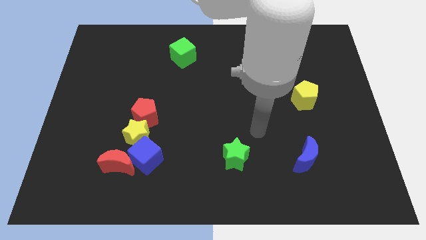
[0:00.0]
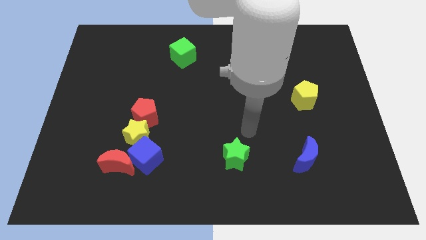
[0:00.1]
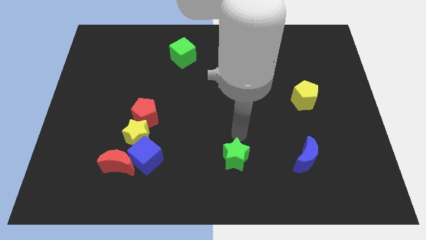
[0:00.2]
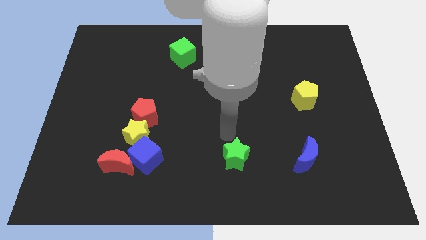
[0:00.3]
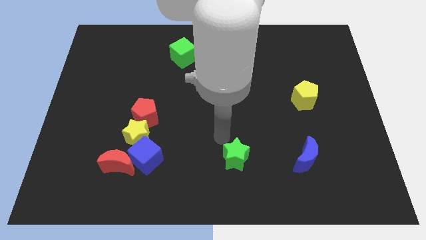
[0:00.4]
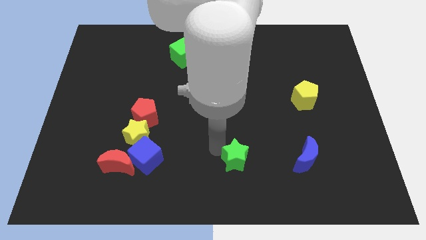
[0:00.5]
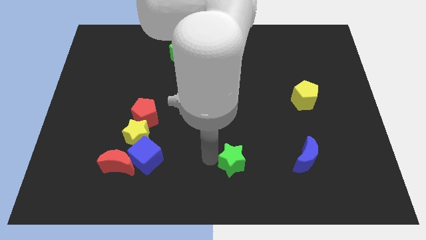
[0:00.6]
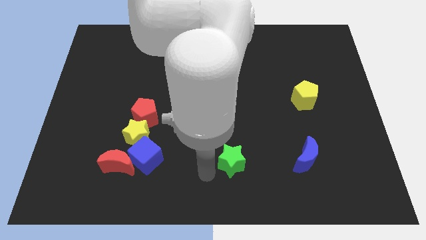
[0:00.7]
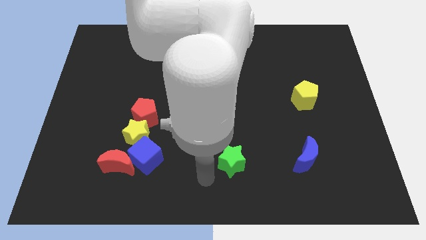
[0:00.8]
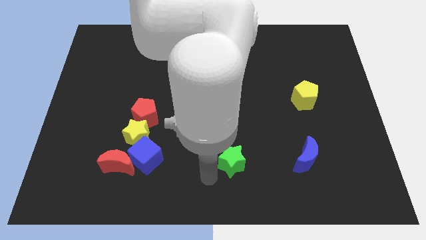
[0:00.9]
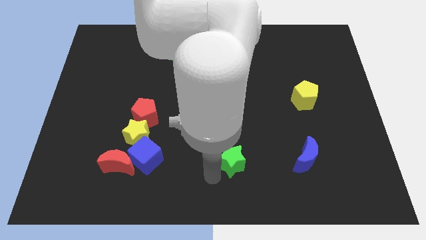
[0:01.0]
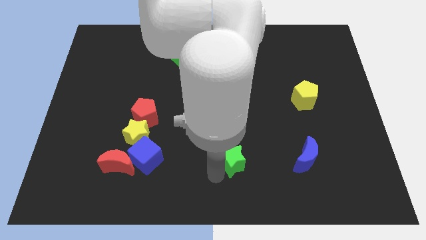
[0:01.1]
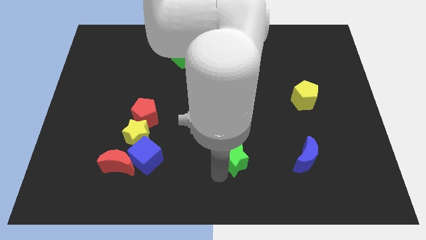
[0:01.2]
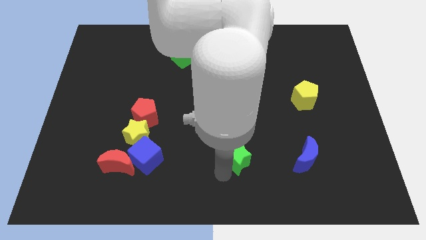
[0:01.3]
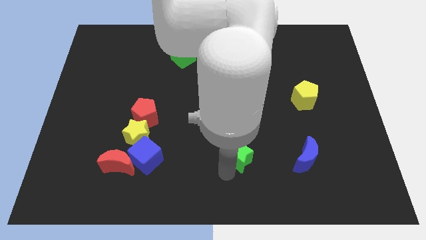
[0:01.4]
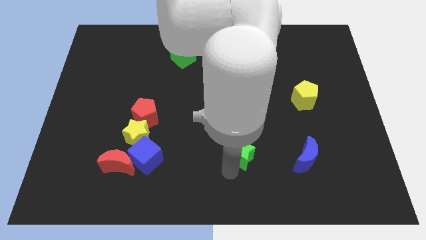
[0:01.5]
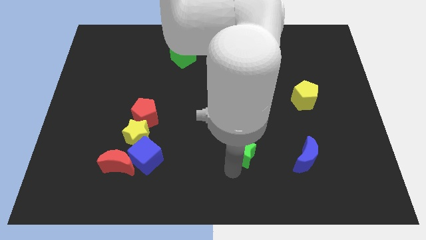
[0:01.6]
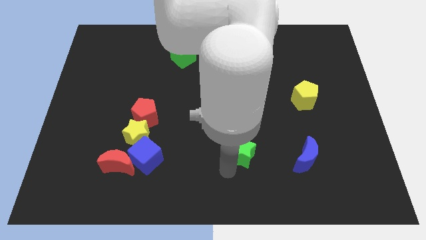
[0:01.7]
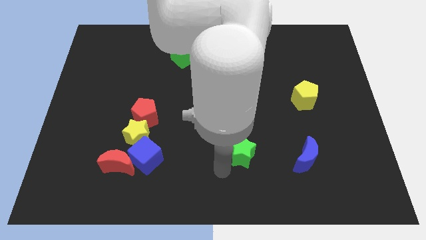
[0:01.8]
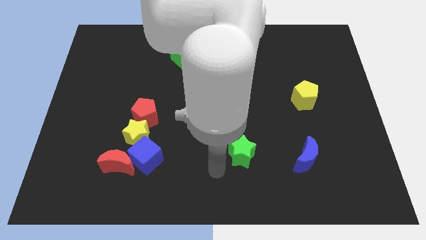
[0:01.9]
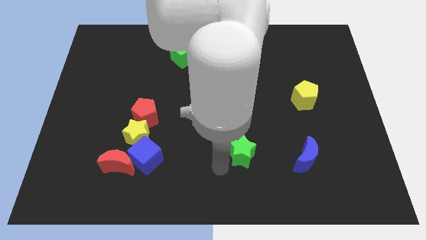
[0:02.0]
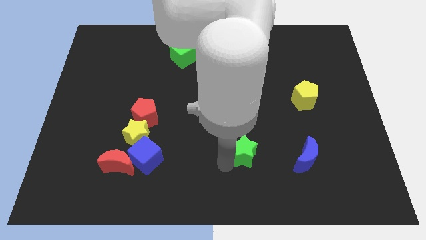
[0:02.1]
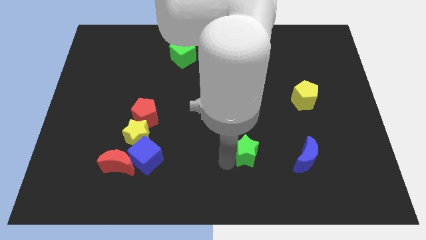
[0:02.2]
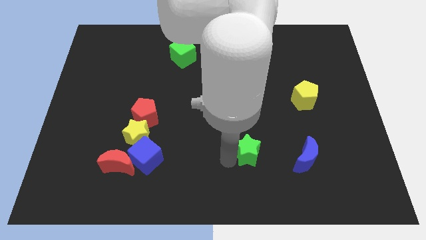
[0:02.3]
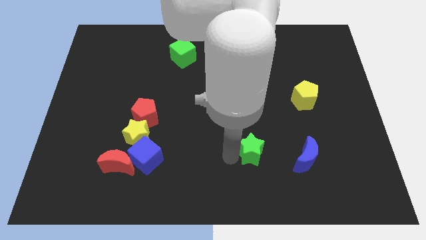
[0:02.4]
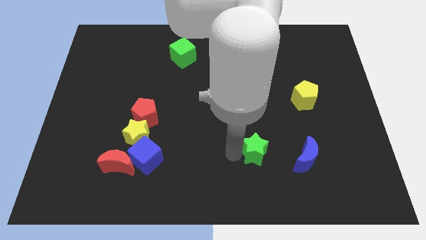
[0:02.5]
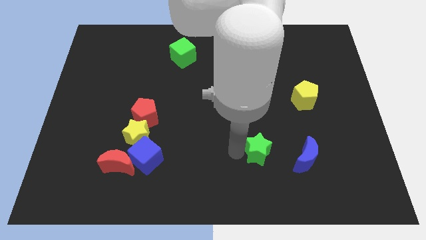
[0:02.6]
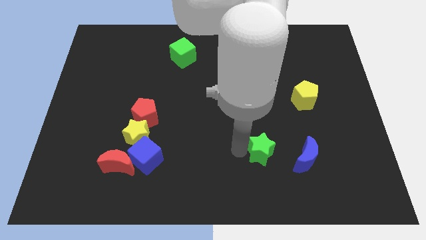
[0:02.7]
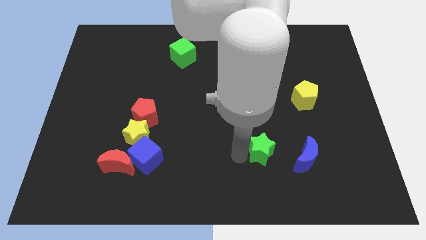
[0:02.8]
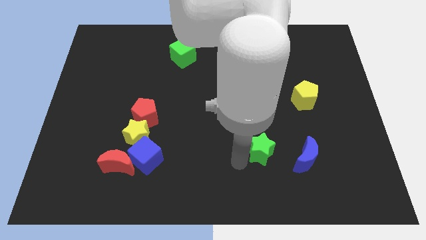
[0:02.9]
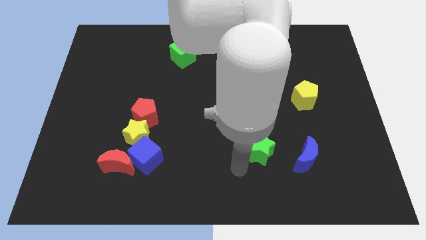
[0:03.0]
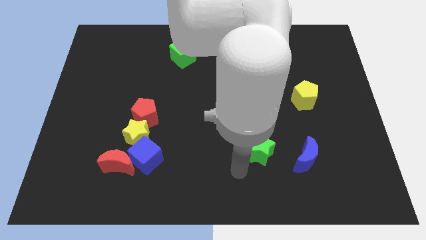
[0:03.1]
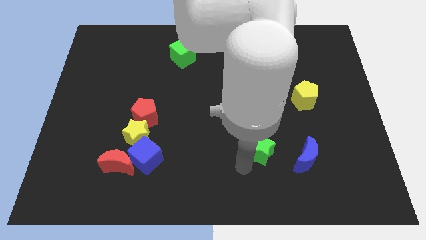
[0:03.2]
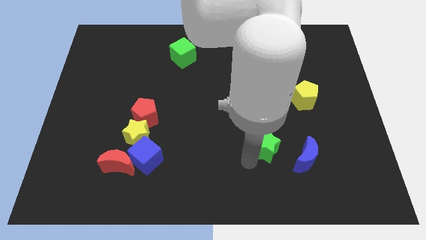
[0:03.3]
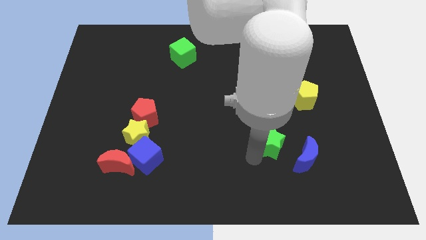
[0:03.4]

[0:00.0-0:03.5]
move the green star to the right a little bit

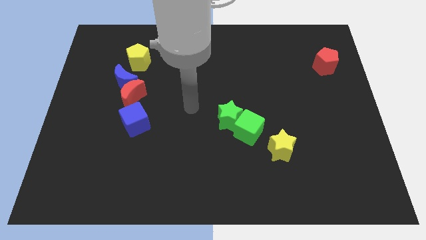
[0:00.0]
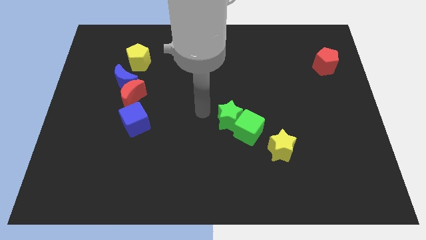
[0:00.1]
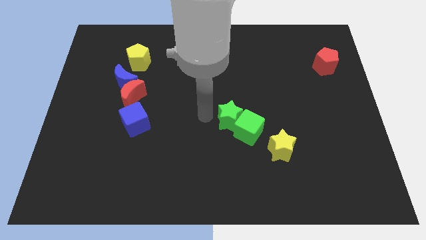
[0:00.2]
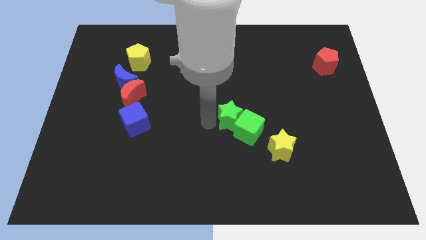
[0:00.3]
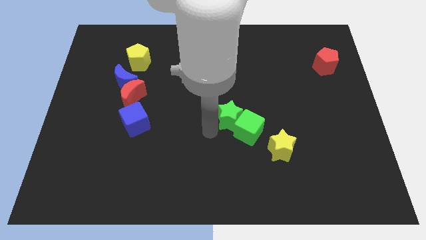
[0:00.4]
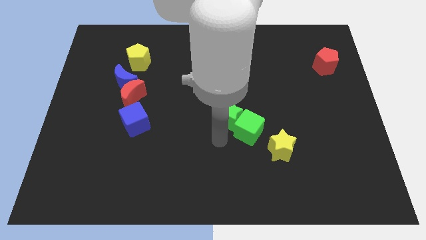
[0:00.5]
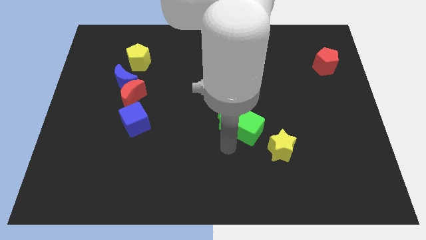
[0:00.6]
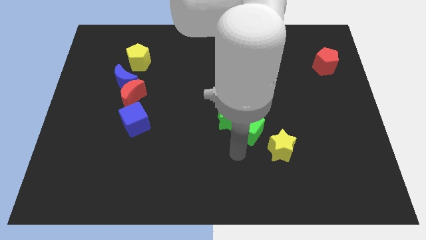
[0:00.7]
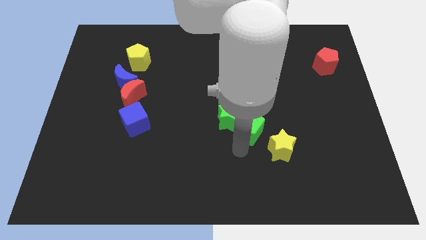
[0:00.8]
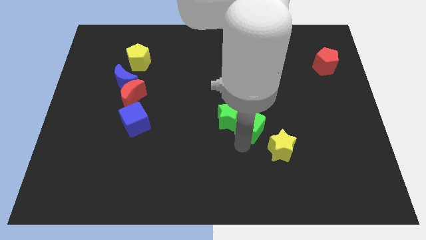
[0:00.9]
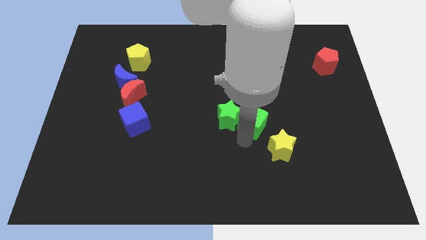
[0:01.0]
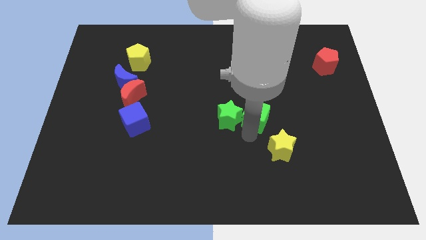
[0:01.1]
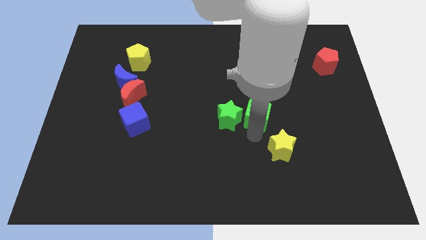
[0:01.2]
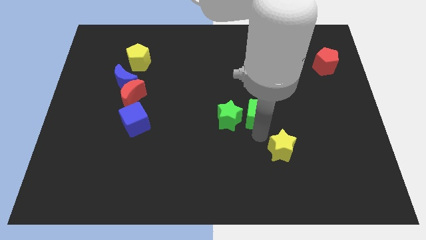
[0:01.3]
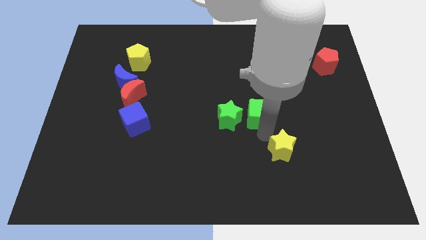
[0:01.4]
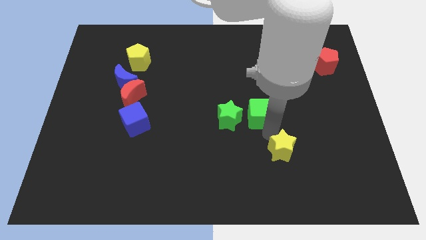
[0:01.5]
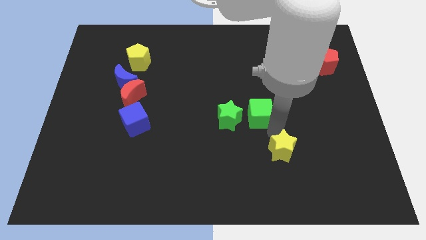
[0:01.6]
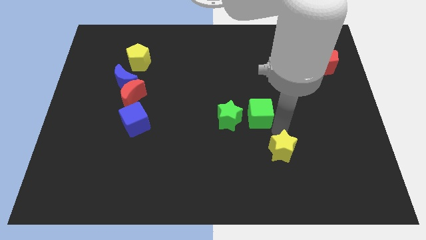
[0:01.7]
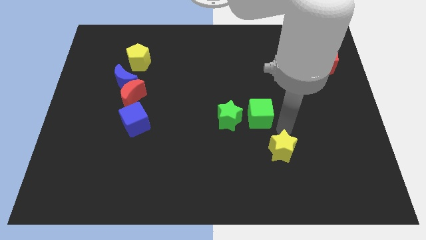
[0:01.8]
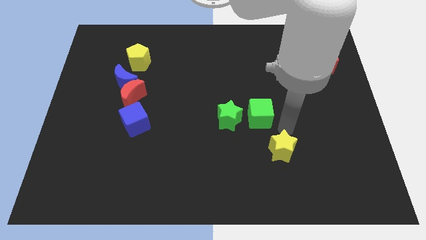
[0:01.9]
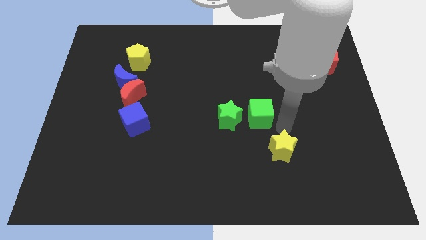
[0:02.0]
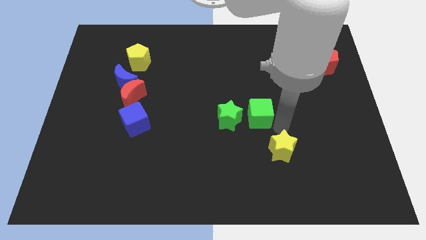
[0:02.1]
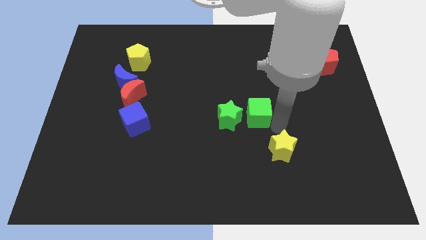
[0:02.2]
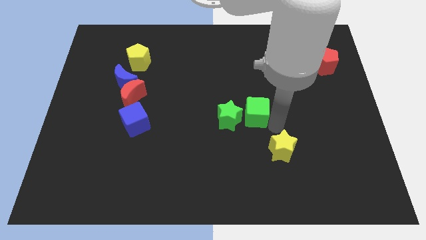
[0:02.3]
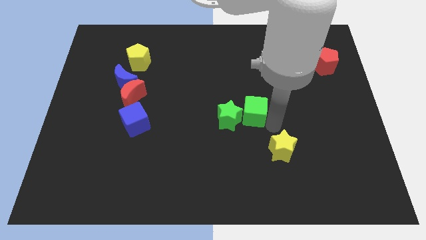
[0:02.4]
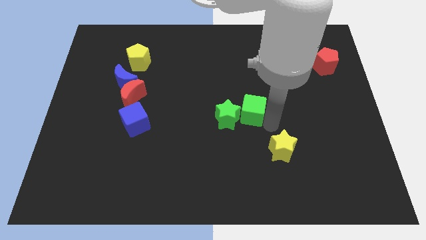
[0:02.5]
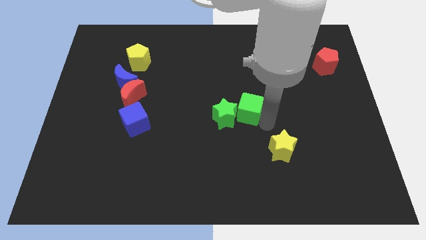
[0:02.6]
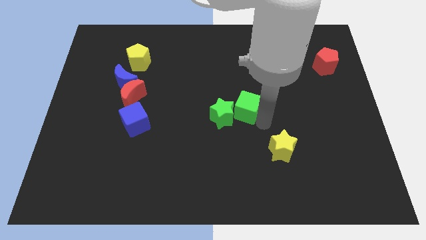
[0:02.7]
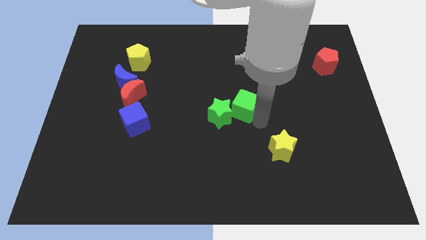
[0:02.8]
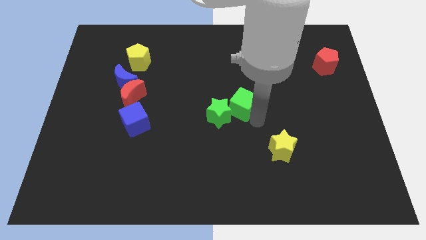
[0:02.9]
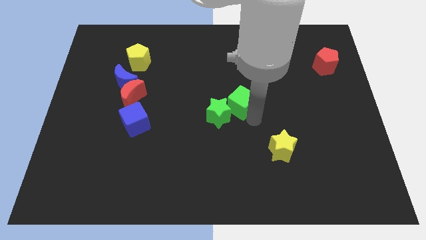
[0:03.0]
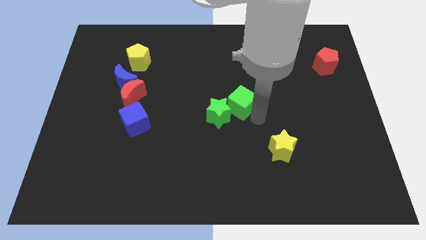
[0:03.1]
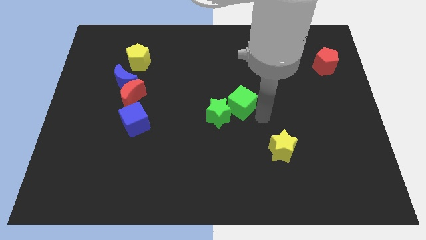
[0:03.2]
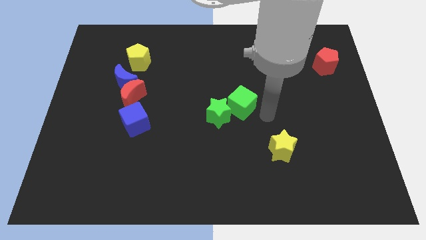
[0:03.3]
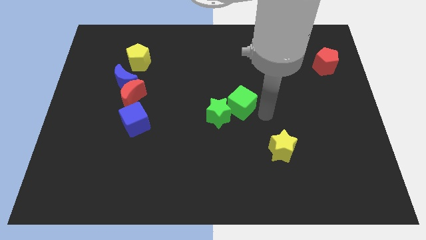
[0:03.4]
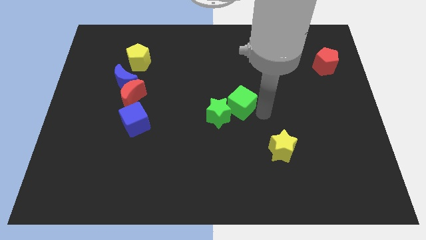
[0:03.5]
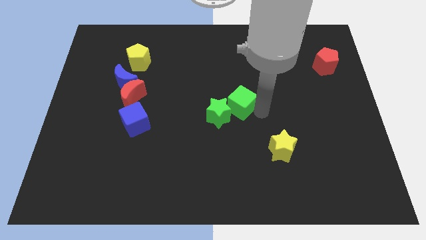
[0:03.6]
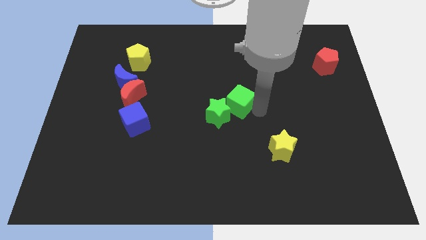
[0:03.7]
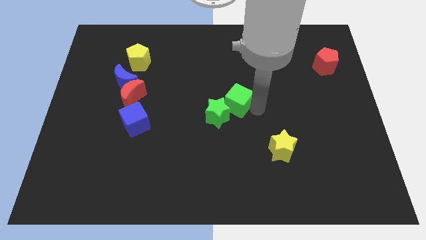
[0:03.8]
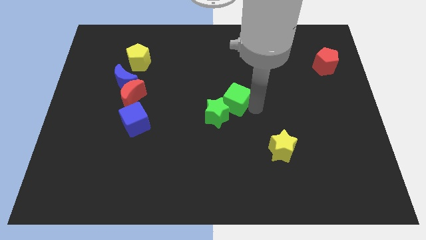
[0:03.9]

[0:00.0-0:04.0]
push the green cube somewhat up and then left

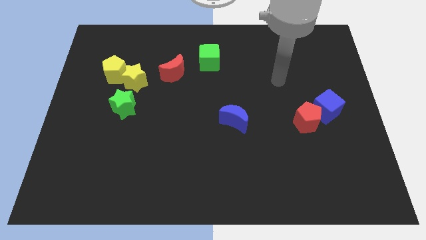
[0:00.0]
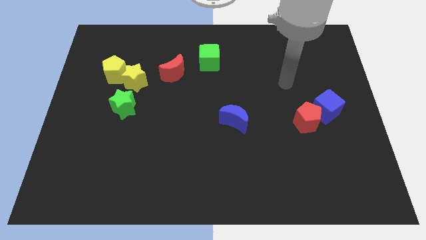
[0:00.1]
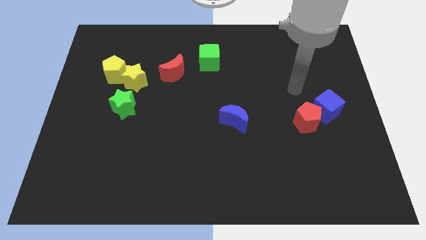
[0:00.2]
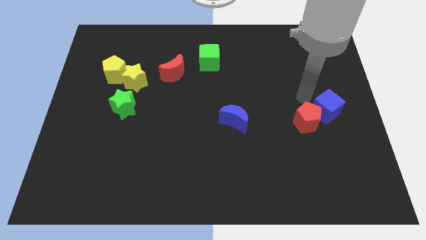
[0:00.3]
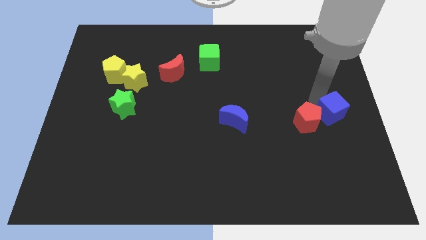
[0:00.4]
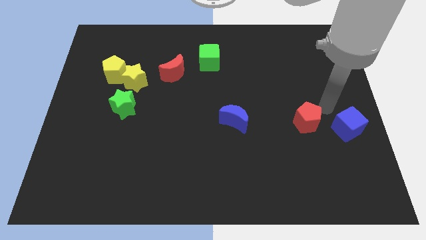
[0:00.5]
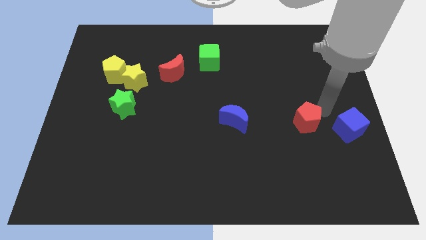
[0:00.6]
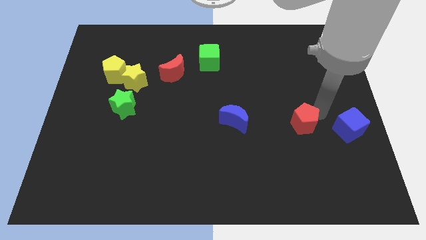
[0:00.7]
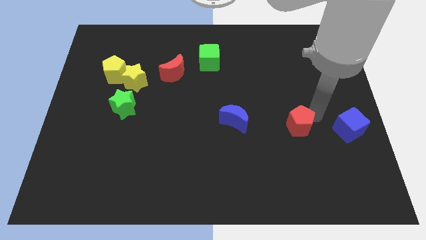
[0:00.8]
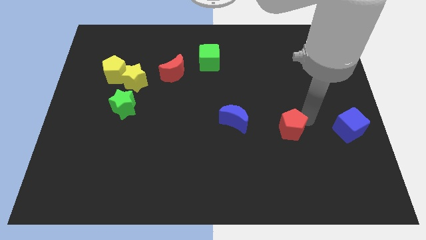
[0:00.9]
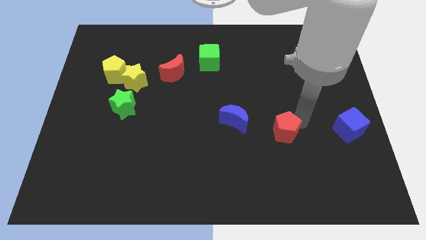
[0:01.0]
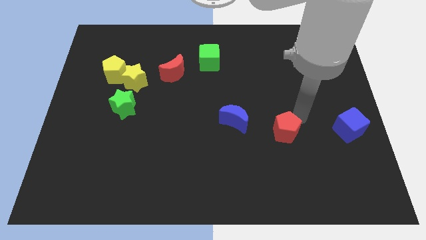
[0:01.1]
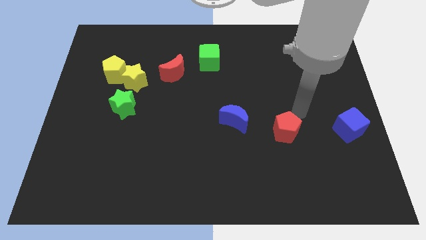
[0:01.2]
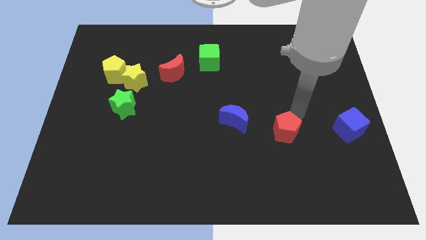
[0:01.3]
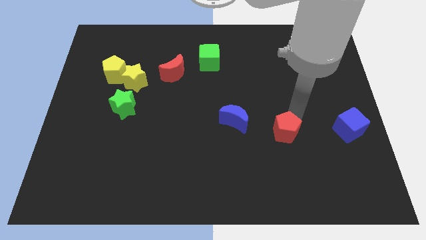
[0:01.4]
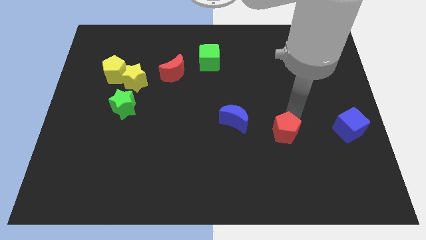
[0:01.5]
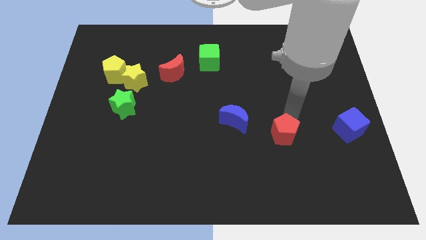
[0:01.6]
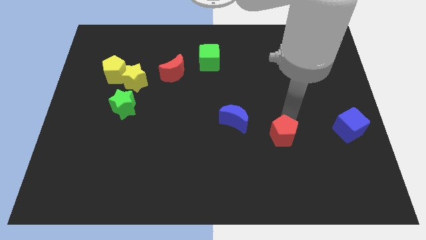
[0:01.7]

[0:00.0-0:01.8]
slide the red pentagon down and to the left diagonally a little
